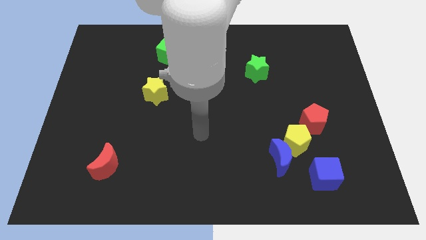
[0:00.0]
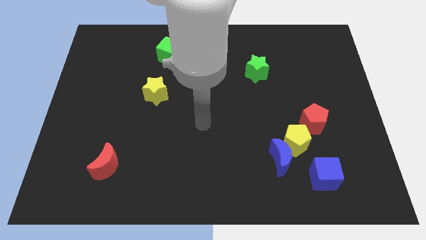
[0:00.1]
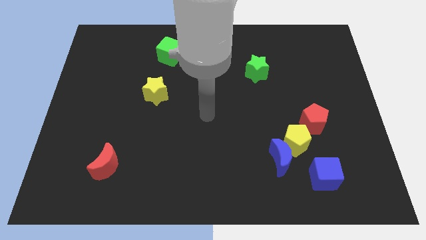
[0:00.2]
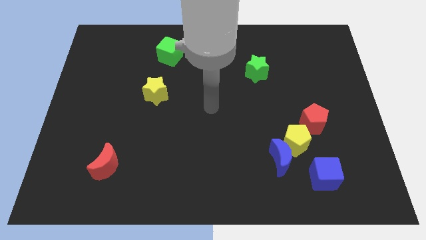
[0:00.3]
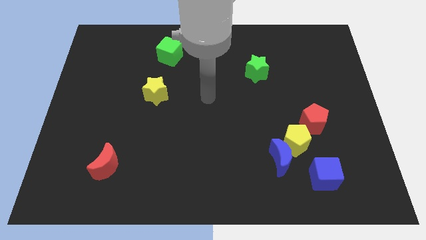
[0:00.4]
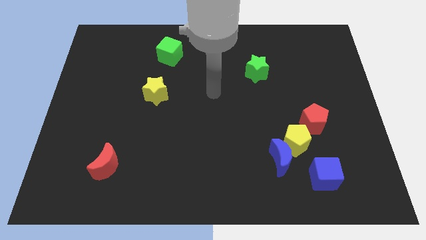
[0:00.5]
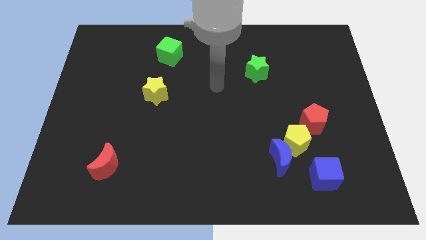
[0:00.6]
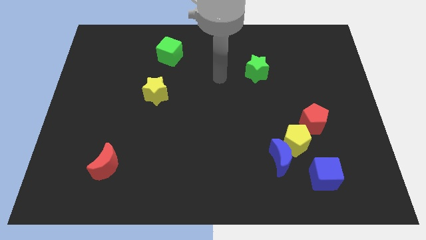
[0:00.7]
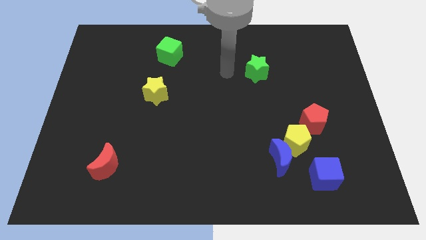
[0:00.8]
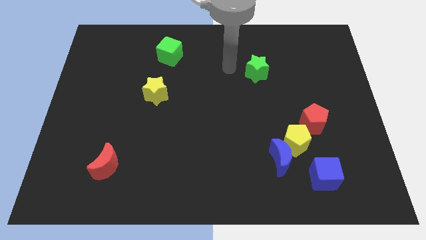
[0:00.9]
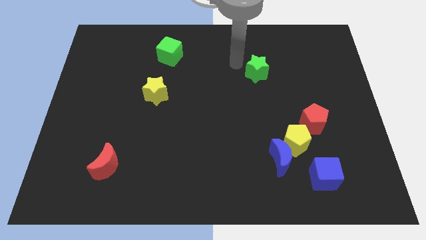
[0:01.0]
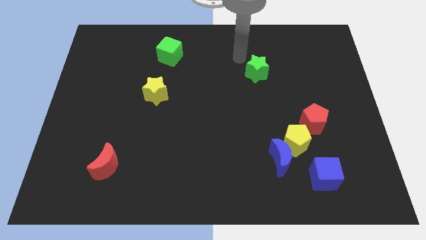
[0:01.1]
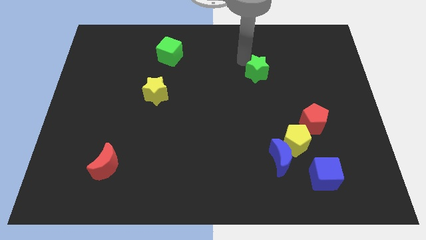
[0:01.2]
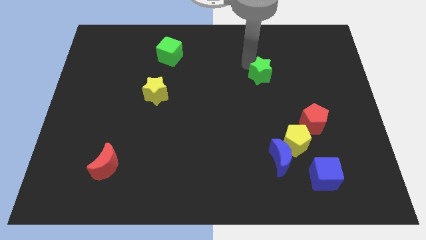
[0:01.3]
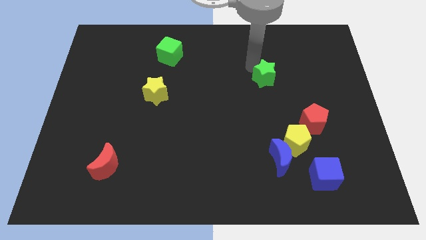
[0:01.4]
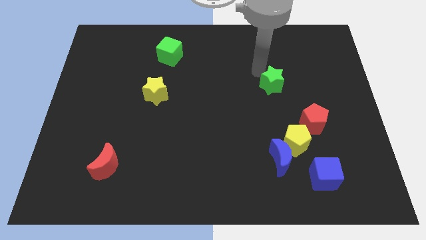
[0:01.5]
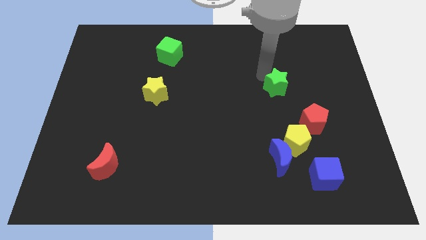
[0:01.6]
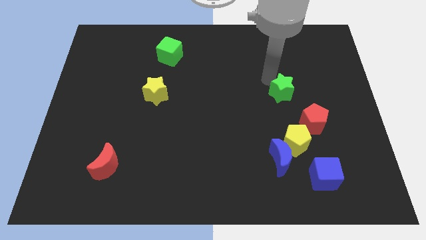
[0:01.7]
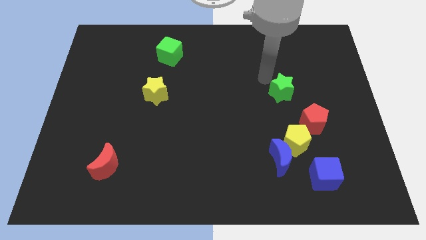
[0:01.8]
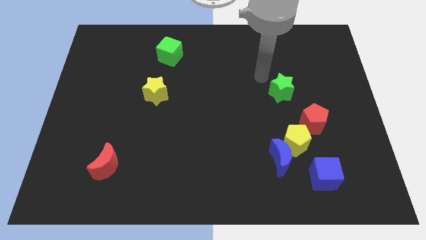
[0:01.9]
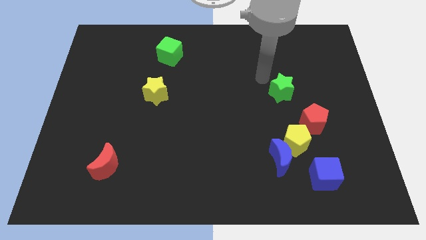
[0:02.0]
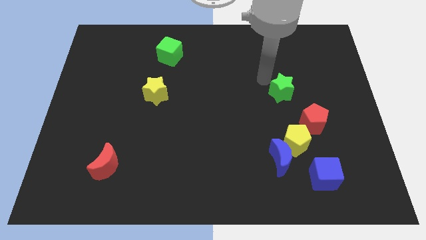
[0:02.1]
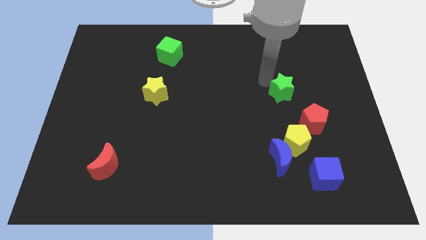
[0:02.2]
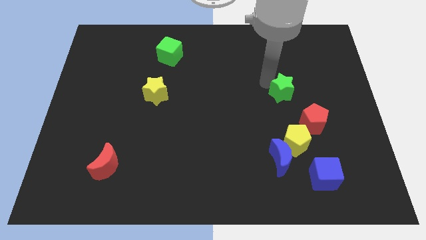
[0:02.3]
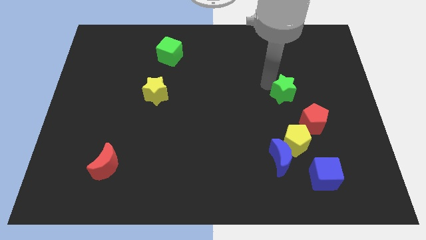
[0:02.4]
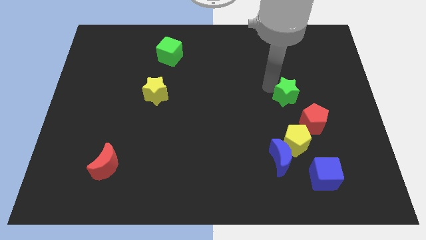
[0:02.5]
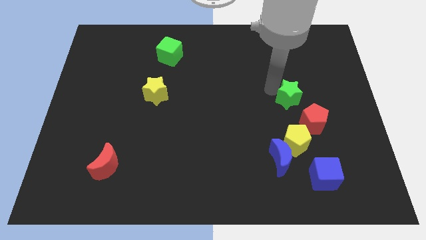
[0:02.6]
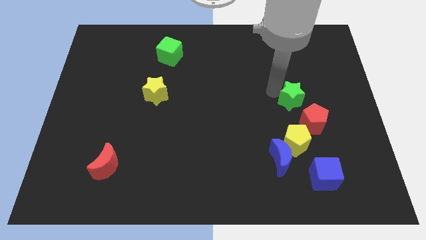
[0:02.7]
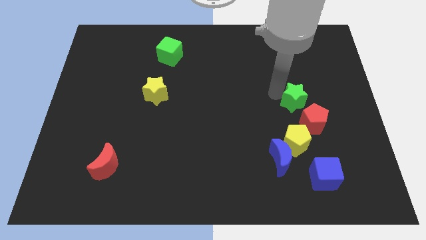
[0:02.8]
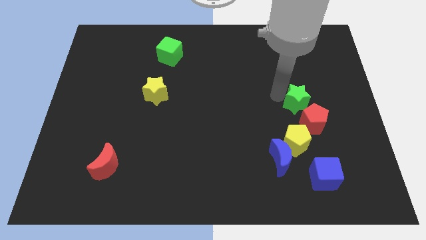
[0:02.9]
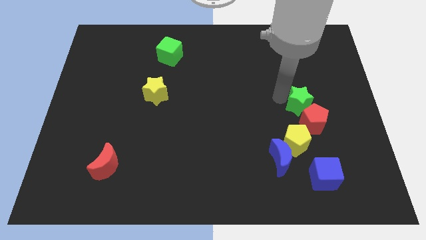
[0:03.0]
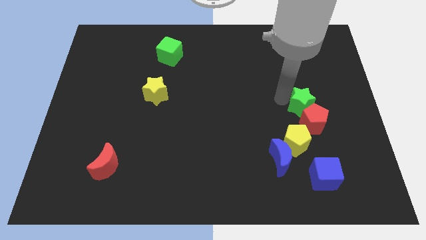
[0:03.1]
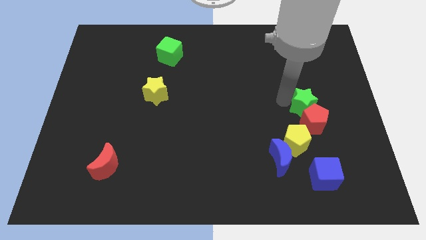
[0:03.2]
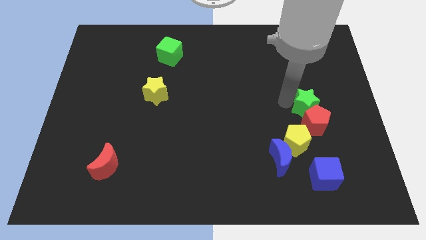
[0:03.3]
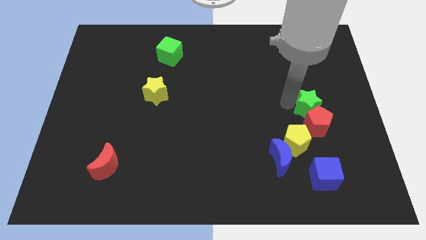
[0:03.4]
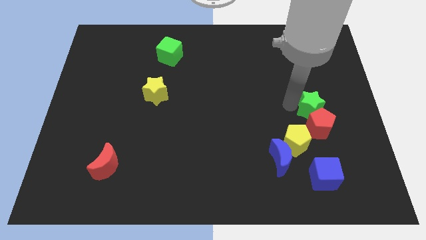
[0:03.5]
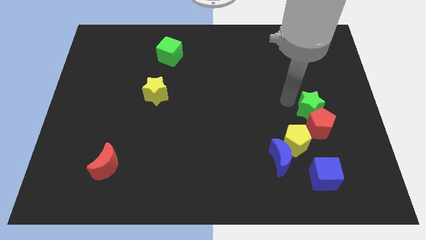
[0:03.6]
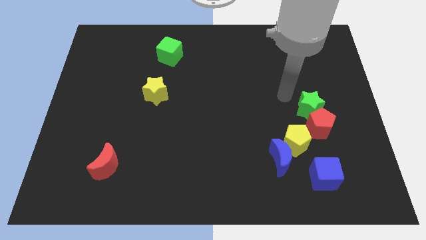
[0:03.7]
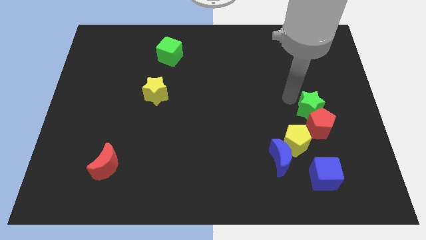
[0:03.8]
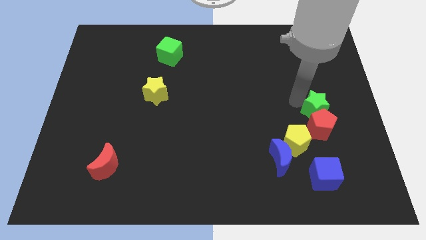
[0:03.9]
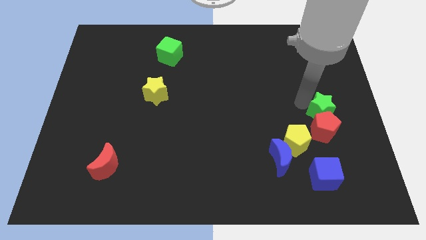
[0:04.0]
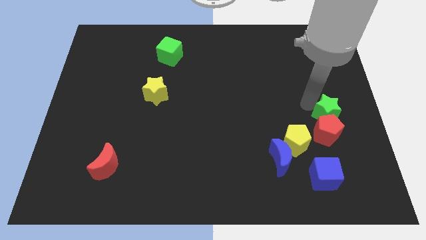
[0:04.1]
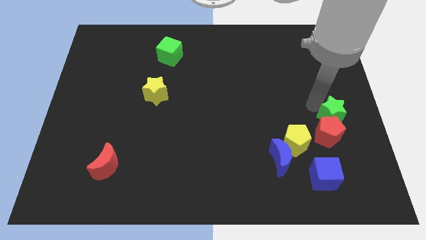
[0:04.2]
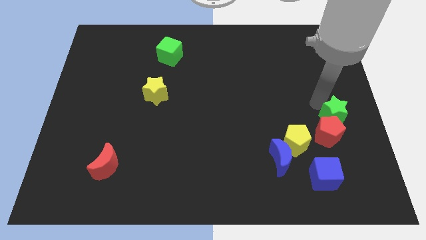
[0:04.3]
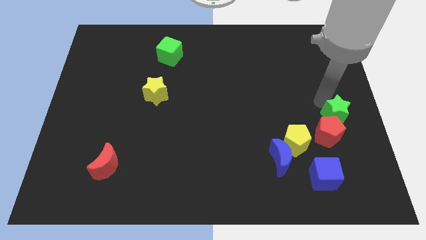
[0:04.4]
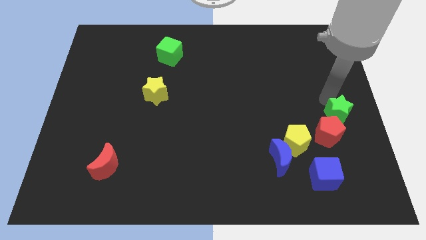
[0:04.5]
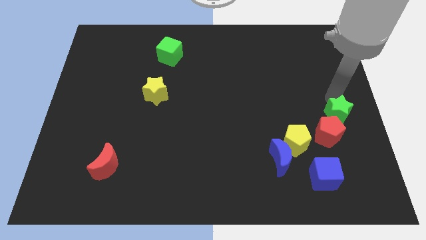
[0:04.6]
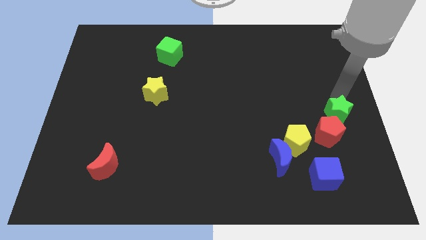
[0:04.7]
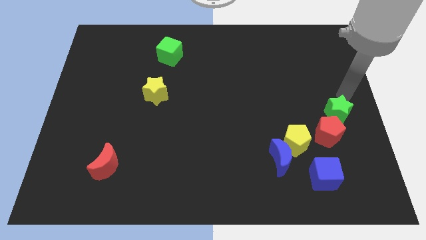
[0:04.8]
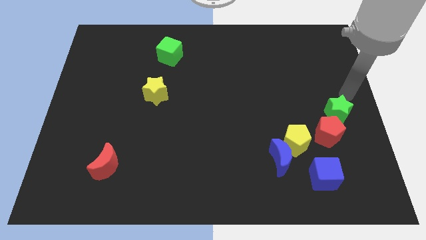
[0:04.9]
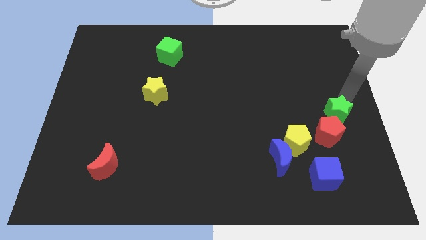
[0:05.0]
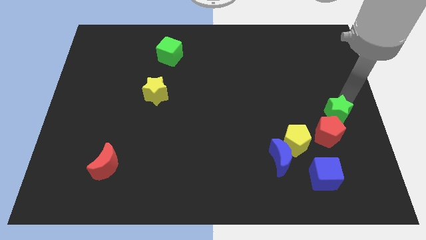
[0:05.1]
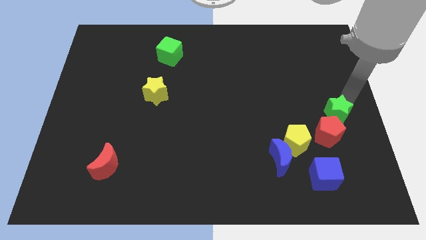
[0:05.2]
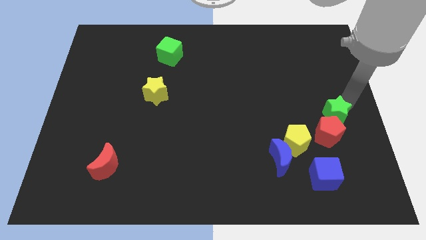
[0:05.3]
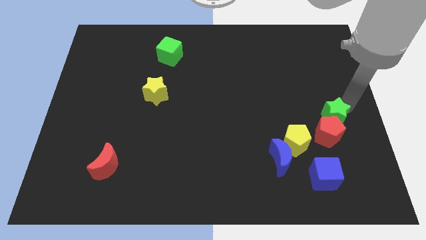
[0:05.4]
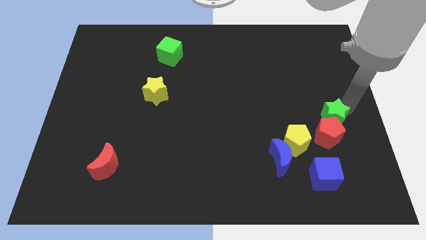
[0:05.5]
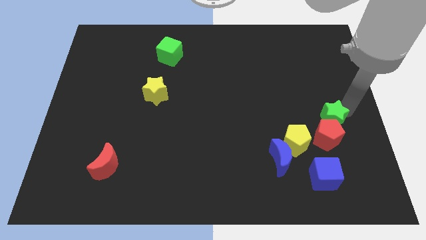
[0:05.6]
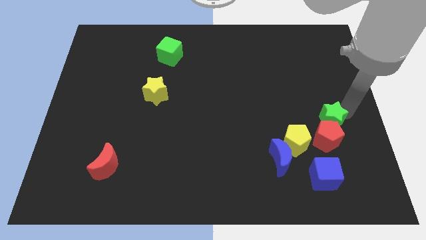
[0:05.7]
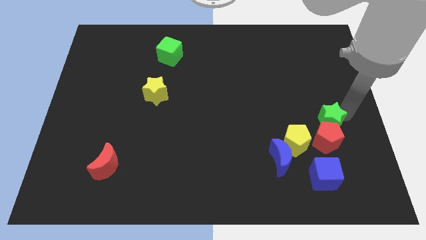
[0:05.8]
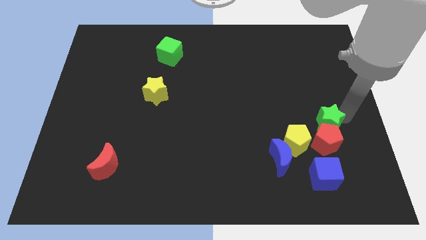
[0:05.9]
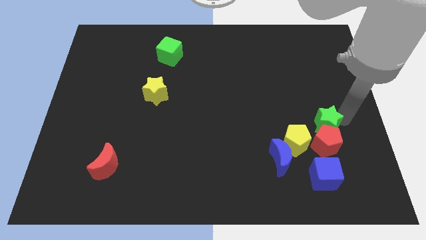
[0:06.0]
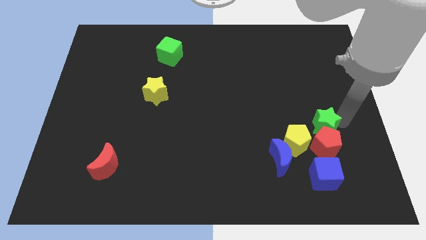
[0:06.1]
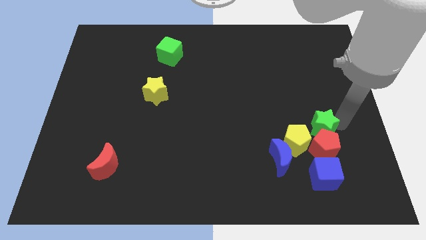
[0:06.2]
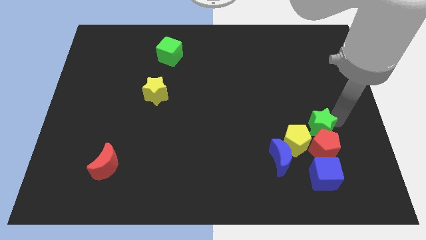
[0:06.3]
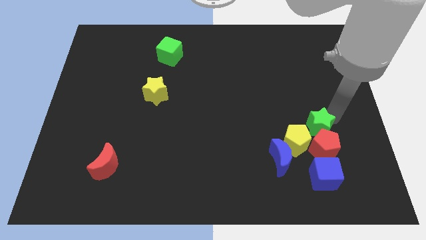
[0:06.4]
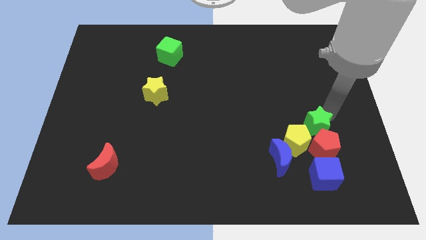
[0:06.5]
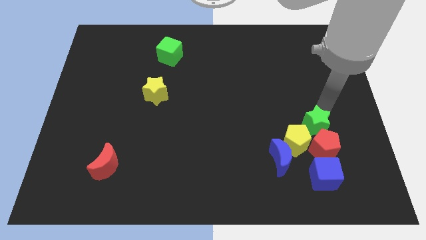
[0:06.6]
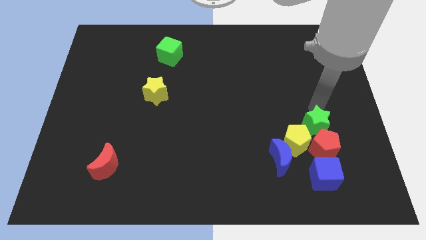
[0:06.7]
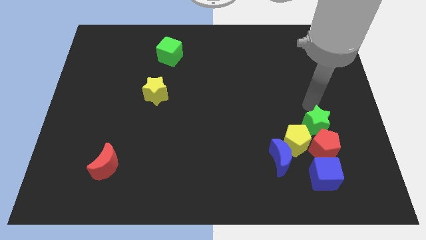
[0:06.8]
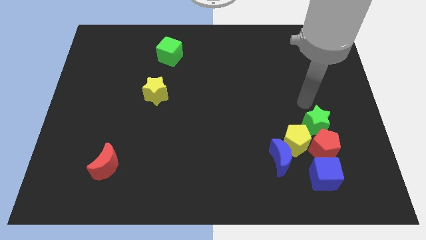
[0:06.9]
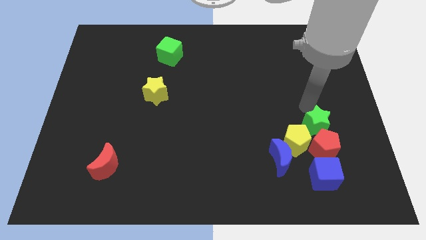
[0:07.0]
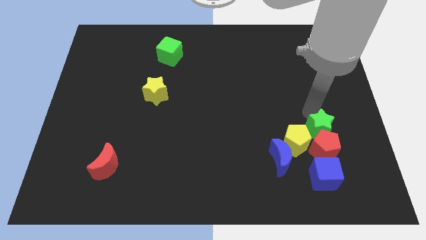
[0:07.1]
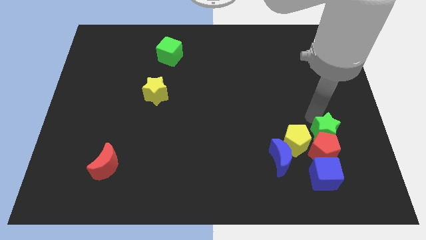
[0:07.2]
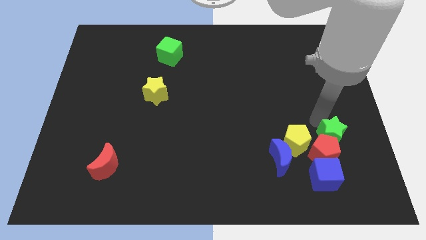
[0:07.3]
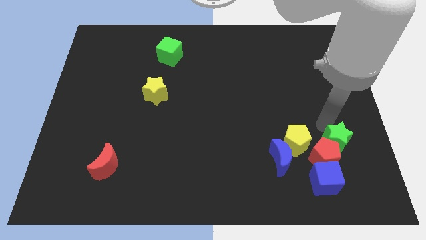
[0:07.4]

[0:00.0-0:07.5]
slide the green star to the right of the blue moon

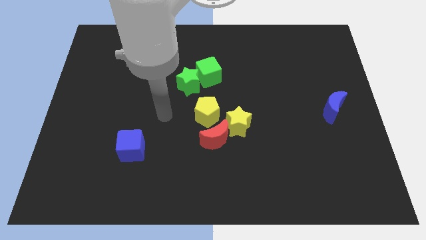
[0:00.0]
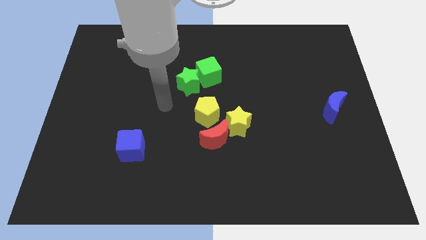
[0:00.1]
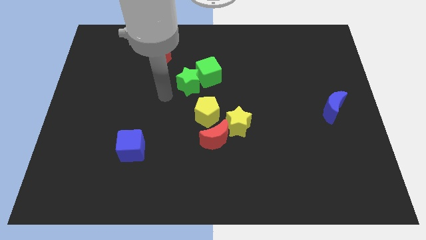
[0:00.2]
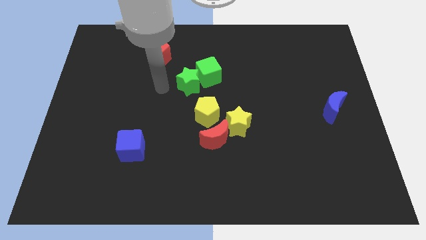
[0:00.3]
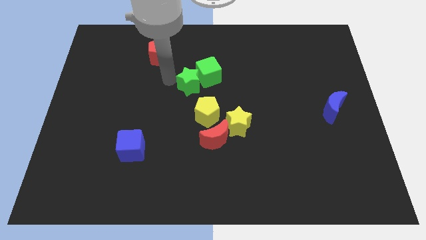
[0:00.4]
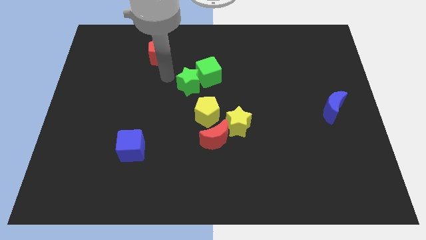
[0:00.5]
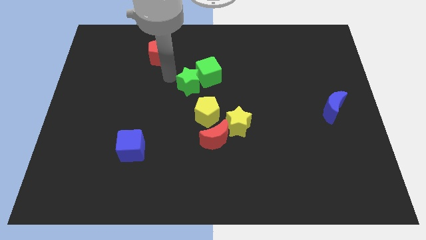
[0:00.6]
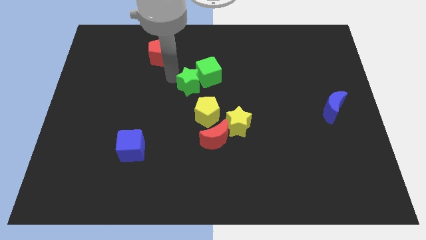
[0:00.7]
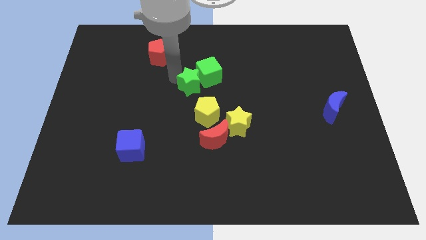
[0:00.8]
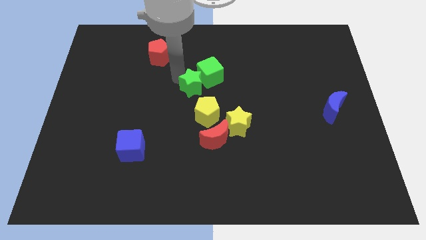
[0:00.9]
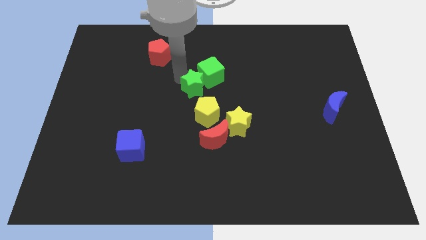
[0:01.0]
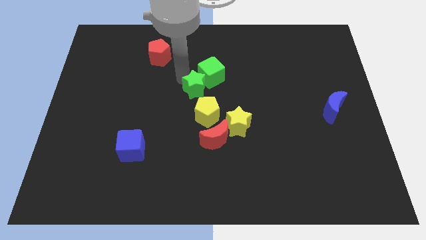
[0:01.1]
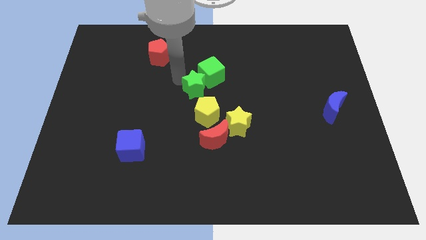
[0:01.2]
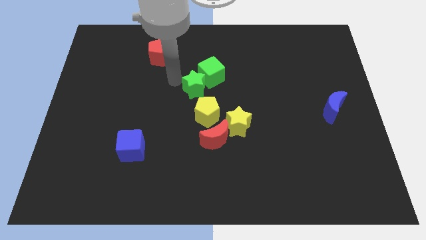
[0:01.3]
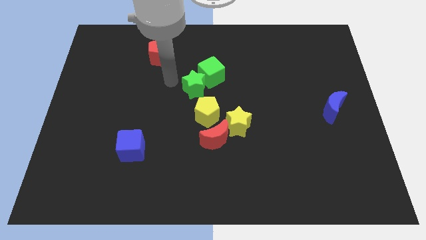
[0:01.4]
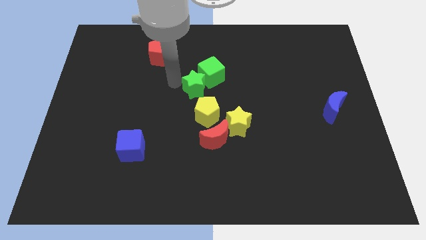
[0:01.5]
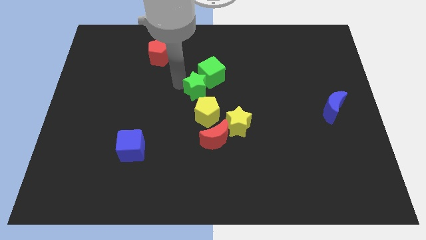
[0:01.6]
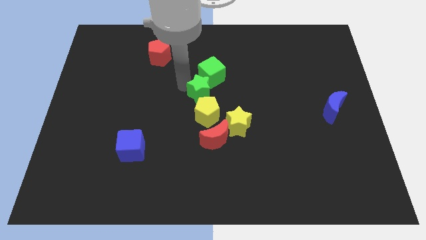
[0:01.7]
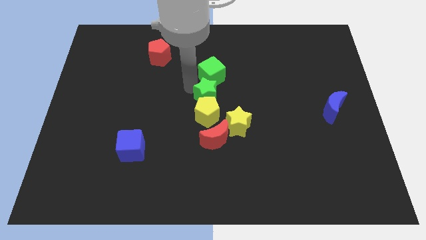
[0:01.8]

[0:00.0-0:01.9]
move the green star diagonally up and to the left of the yellow star
